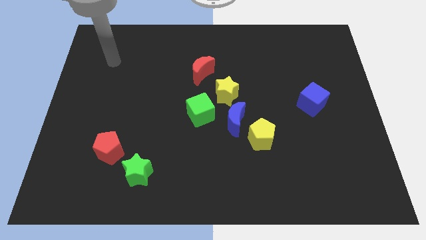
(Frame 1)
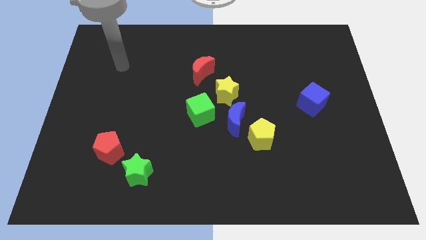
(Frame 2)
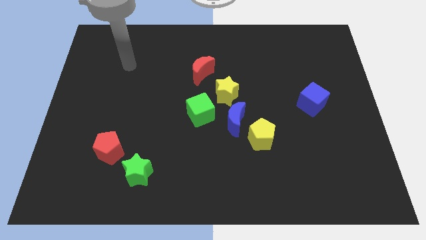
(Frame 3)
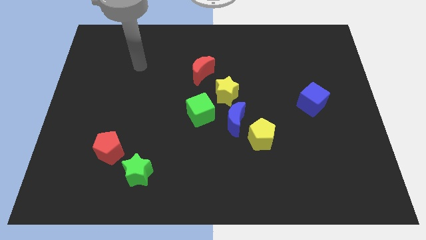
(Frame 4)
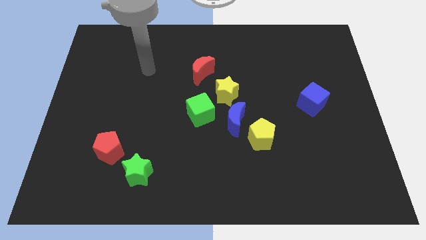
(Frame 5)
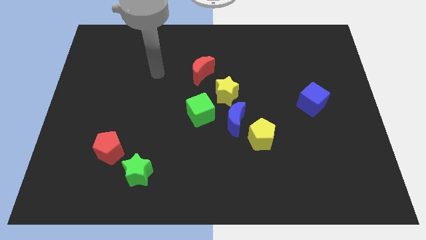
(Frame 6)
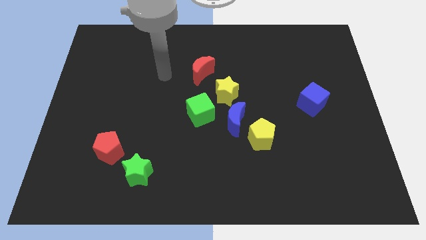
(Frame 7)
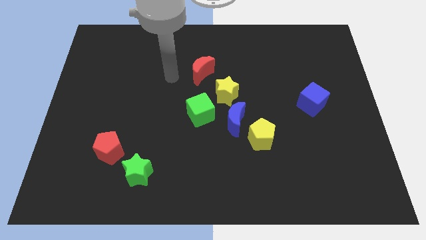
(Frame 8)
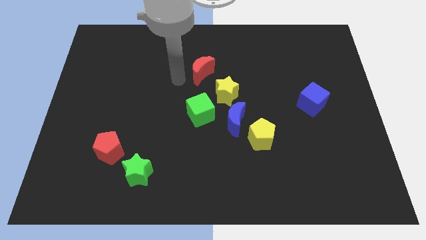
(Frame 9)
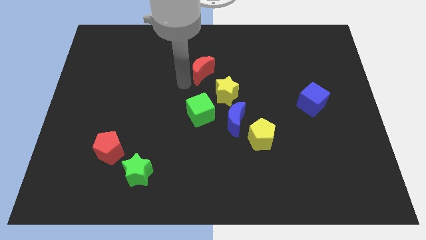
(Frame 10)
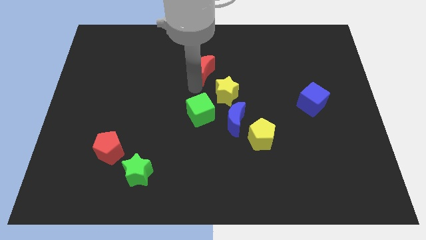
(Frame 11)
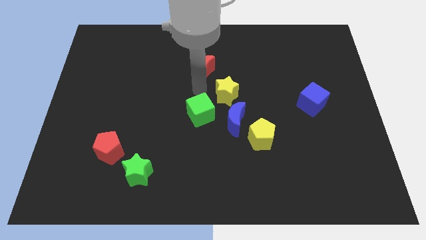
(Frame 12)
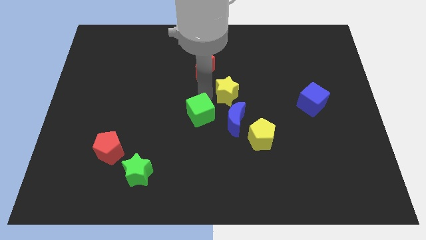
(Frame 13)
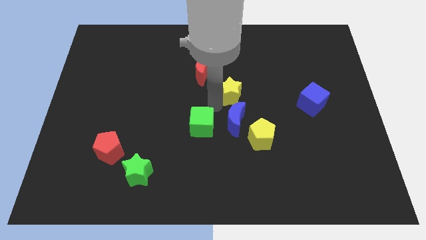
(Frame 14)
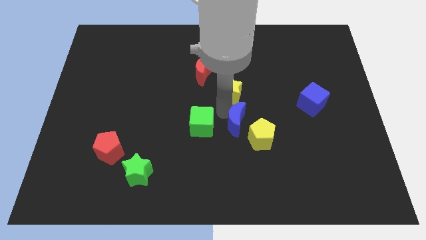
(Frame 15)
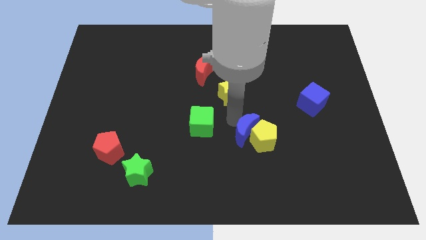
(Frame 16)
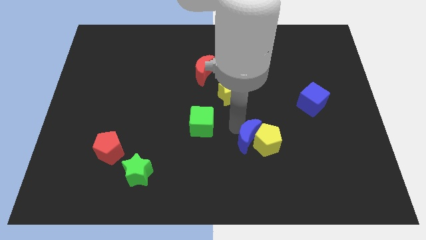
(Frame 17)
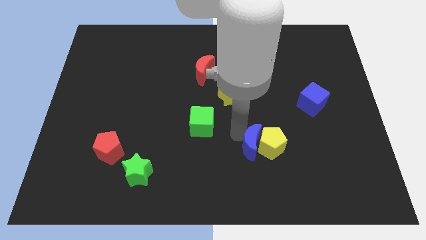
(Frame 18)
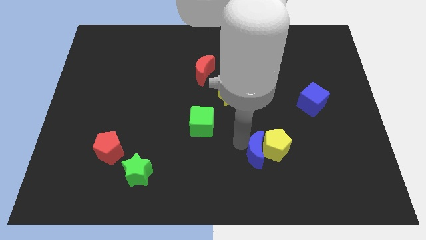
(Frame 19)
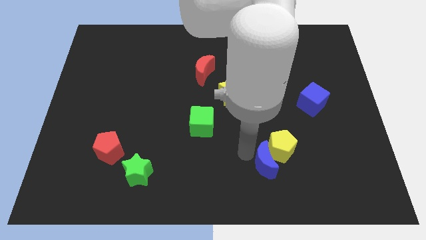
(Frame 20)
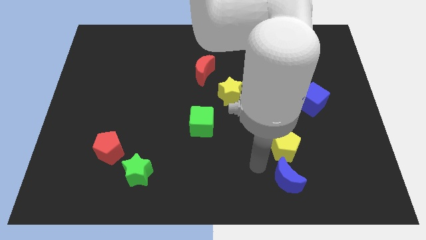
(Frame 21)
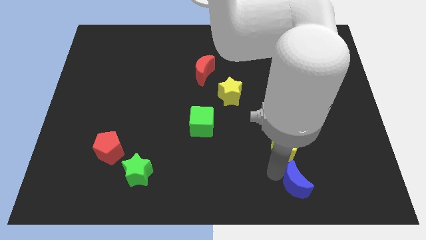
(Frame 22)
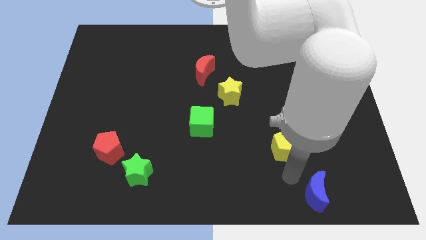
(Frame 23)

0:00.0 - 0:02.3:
separate the yellow pentagon from the blue moon

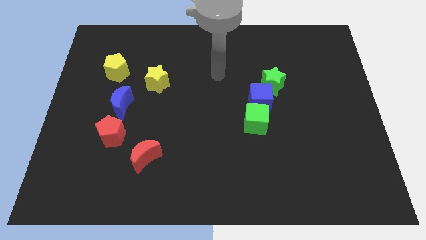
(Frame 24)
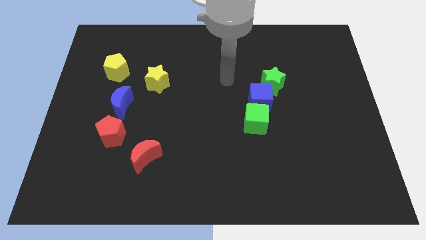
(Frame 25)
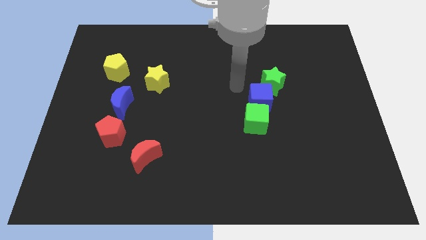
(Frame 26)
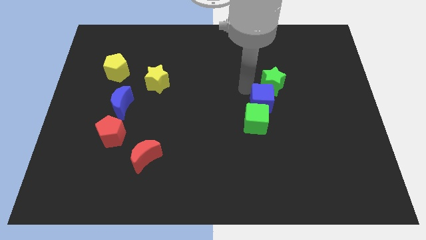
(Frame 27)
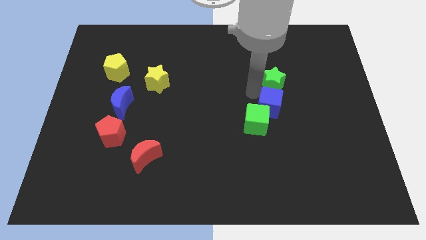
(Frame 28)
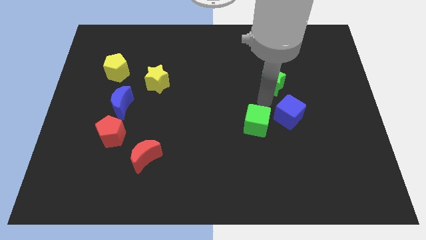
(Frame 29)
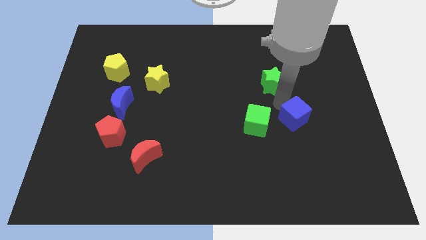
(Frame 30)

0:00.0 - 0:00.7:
separate the green star from the blue cube

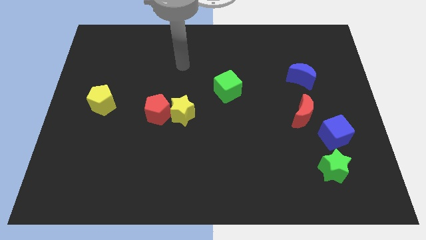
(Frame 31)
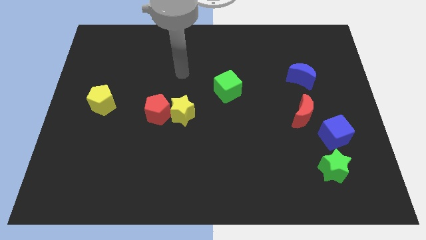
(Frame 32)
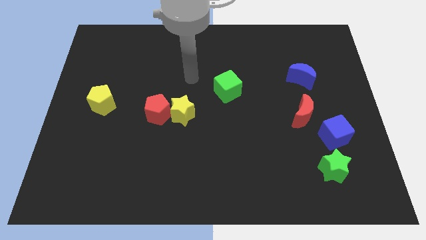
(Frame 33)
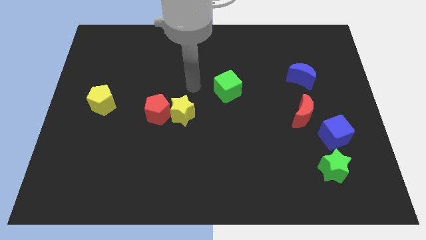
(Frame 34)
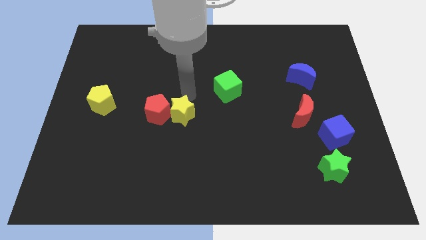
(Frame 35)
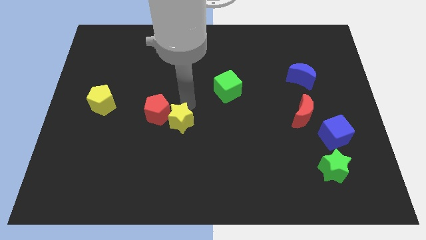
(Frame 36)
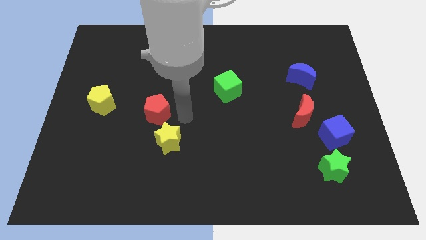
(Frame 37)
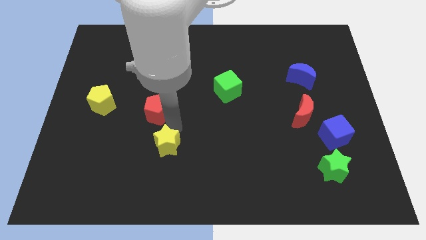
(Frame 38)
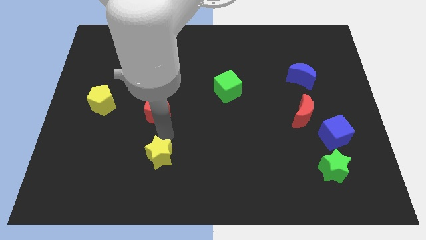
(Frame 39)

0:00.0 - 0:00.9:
separate the red pentagon from the yellow star

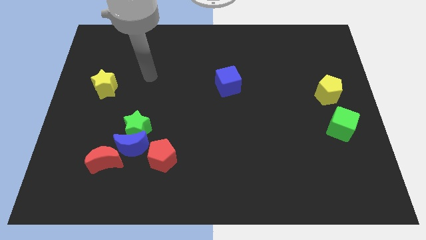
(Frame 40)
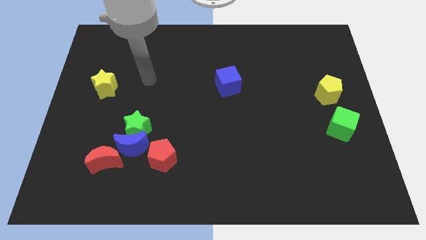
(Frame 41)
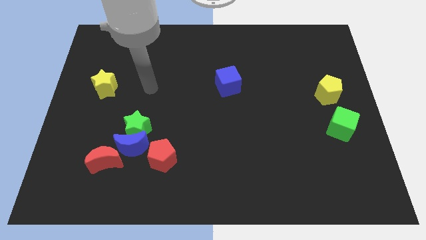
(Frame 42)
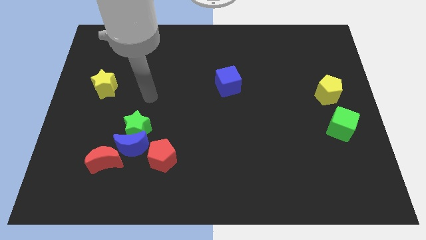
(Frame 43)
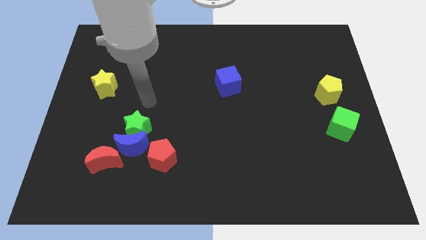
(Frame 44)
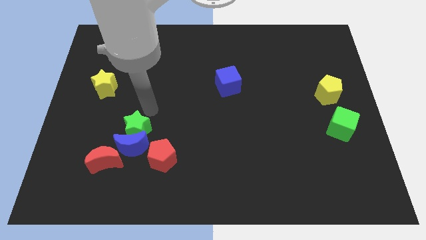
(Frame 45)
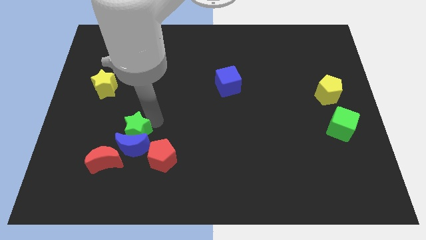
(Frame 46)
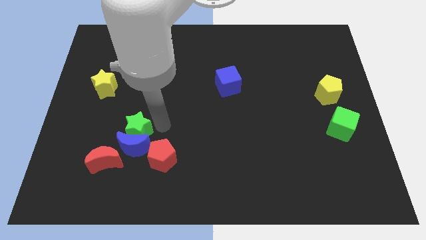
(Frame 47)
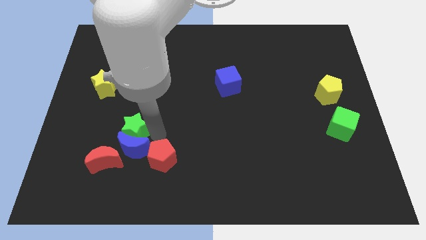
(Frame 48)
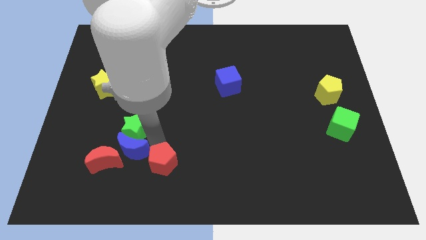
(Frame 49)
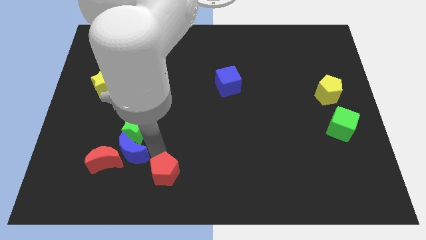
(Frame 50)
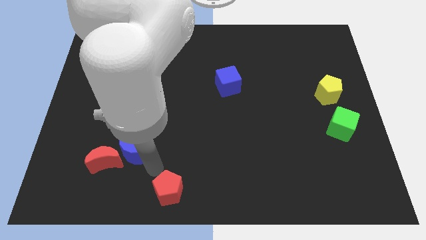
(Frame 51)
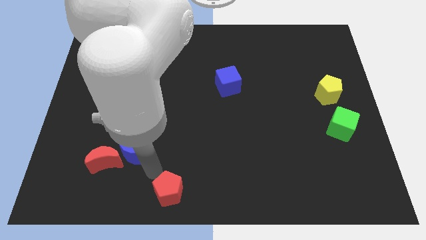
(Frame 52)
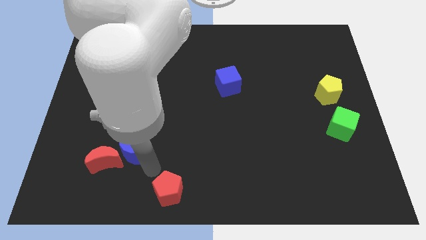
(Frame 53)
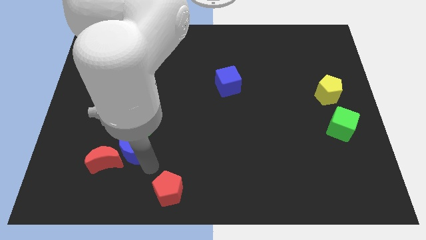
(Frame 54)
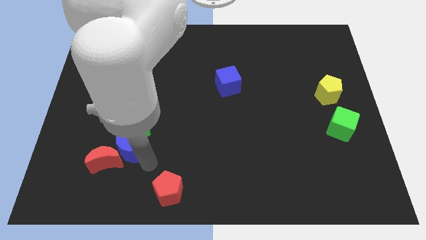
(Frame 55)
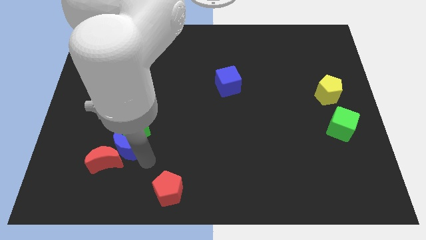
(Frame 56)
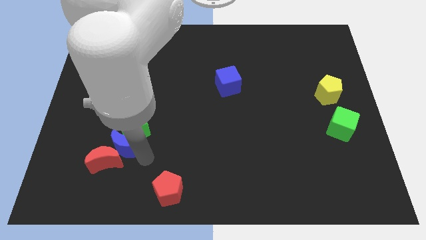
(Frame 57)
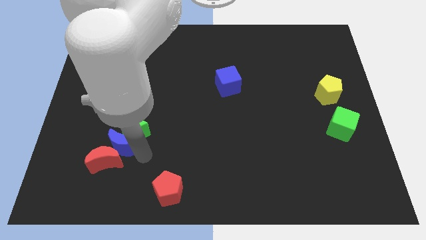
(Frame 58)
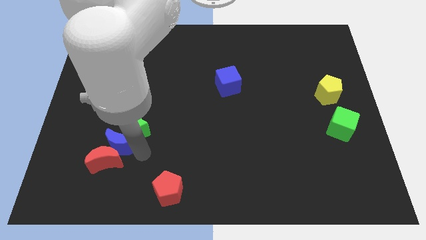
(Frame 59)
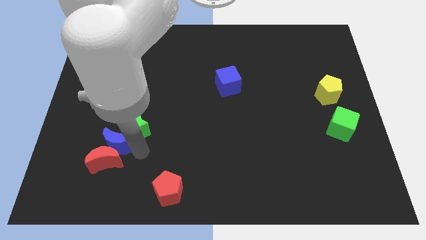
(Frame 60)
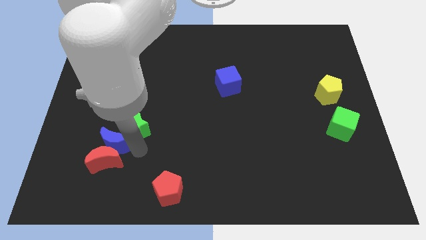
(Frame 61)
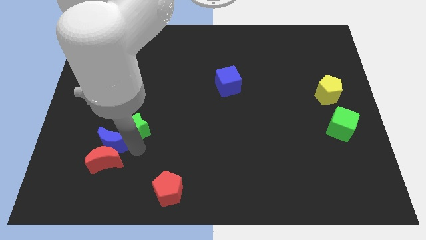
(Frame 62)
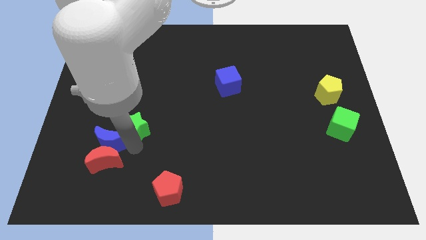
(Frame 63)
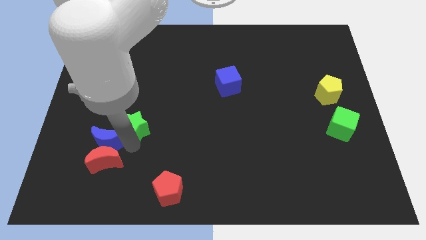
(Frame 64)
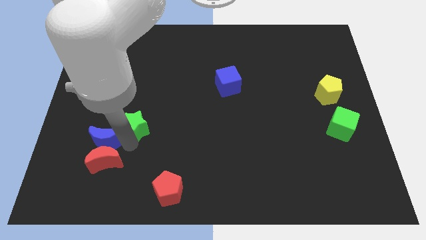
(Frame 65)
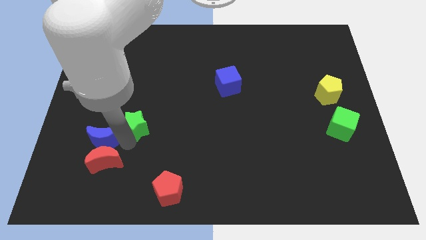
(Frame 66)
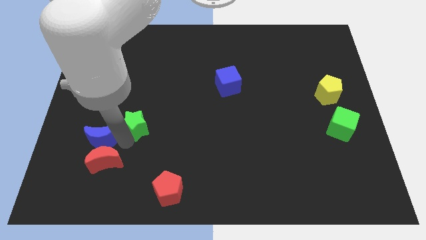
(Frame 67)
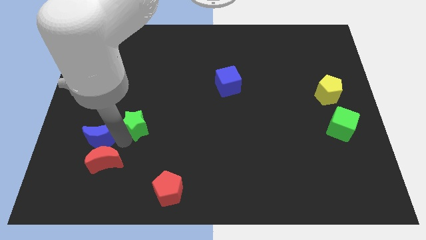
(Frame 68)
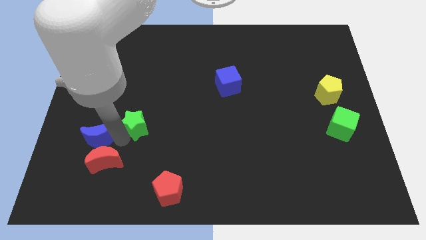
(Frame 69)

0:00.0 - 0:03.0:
separate the blue moon from the green star, red moon, and red pentagon

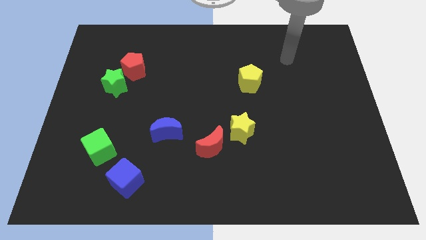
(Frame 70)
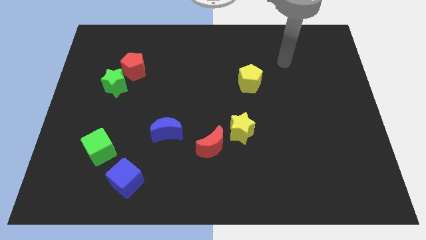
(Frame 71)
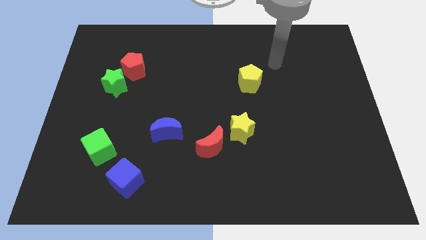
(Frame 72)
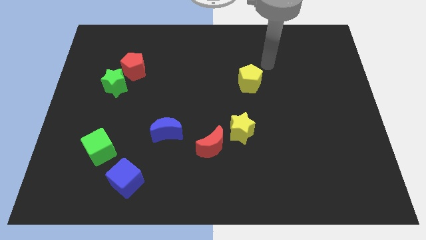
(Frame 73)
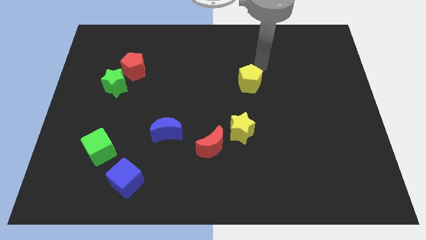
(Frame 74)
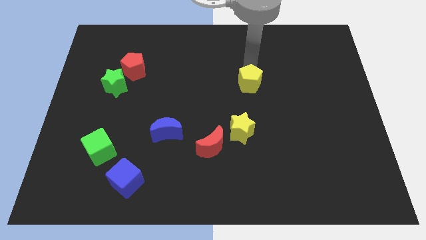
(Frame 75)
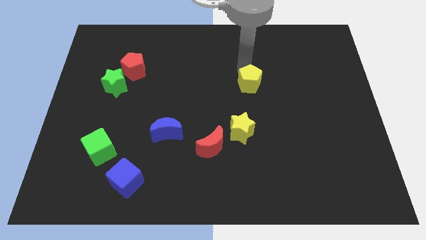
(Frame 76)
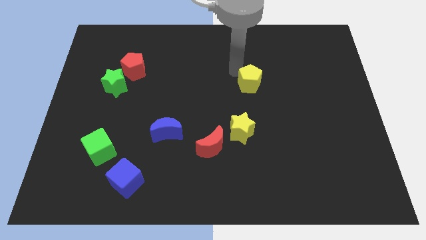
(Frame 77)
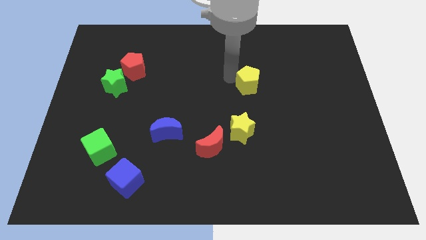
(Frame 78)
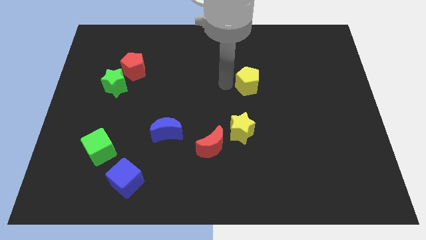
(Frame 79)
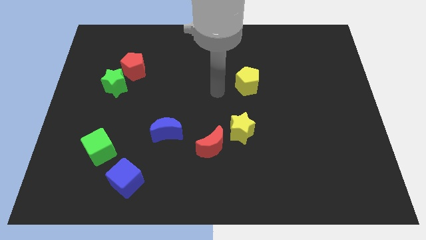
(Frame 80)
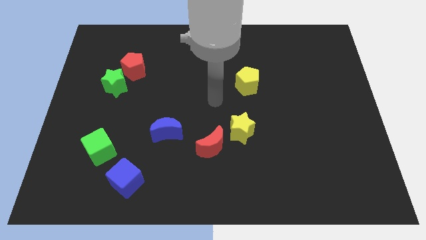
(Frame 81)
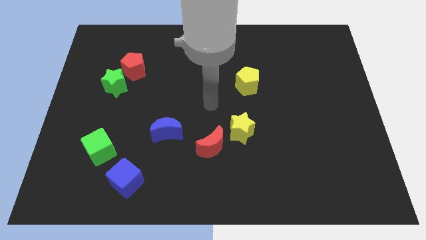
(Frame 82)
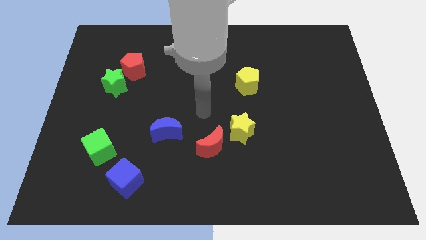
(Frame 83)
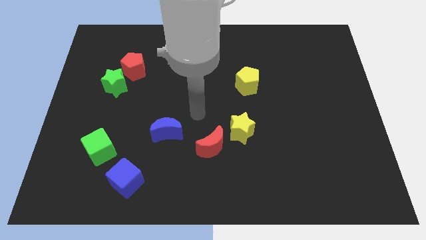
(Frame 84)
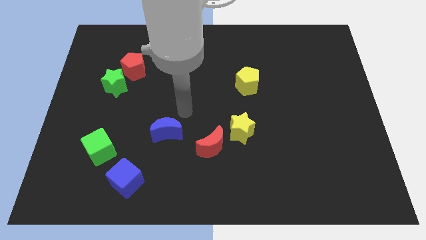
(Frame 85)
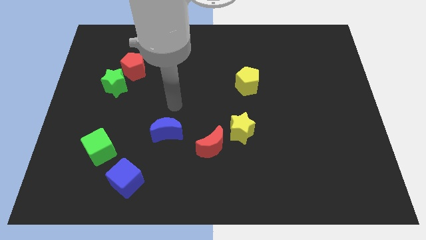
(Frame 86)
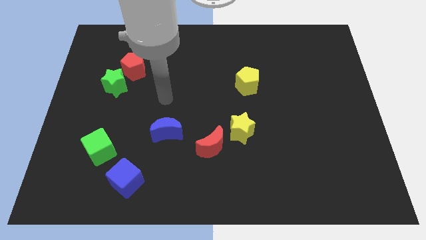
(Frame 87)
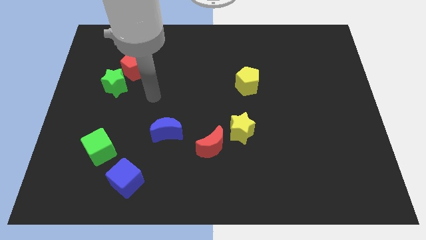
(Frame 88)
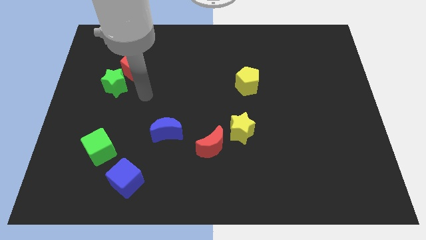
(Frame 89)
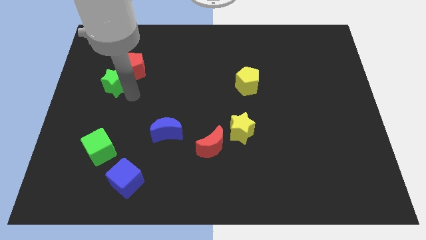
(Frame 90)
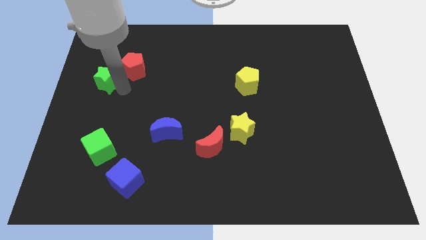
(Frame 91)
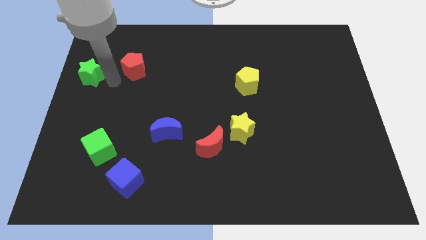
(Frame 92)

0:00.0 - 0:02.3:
separate the red pentagon from the green star
